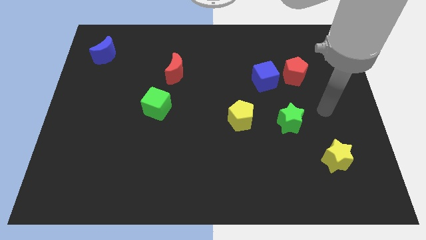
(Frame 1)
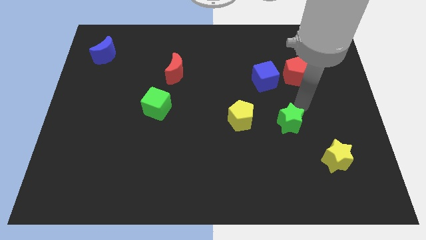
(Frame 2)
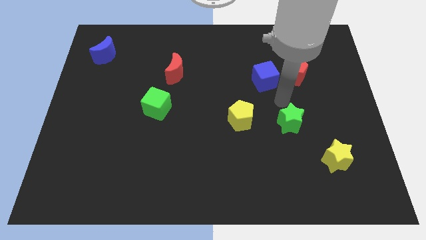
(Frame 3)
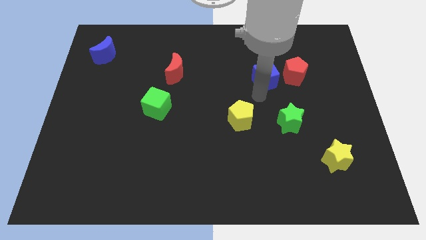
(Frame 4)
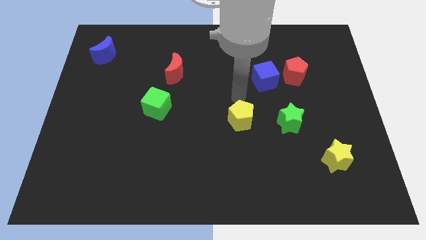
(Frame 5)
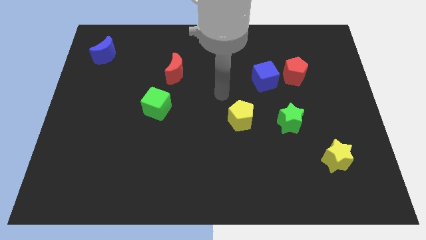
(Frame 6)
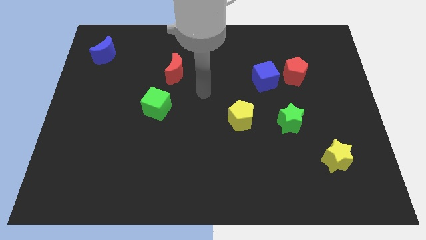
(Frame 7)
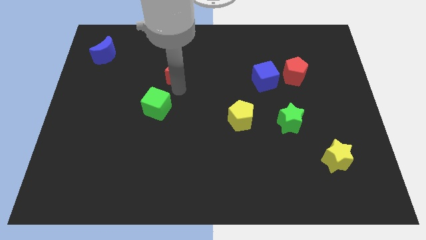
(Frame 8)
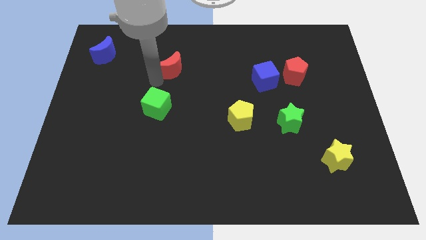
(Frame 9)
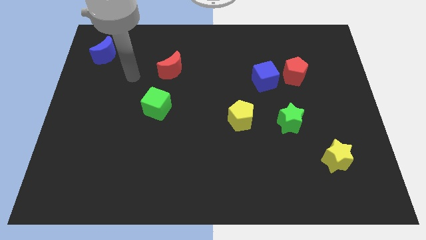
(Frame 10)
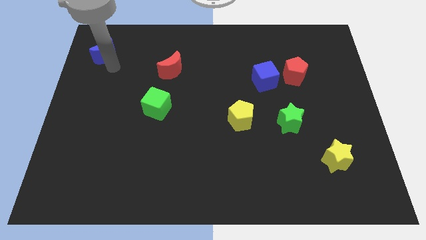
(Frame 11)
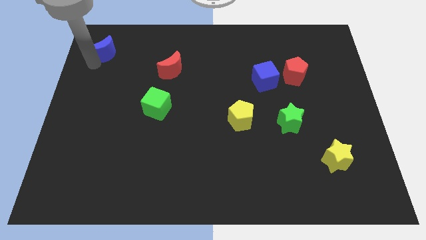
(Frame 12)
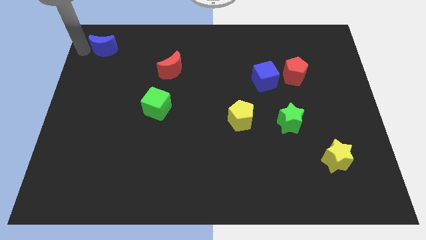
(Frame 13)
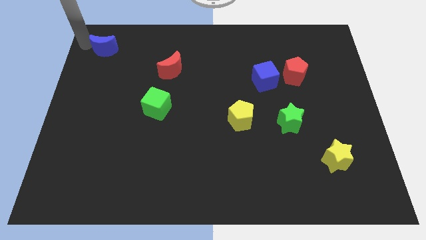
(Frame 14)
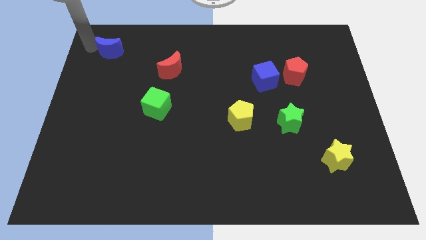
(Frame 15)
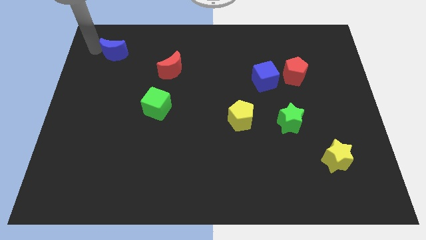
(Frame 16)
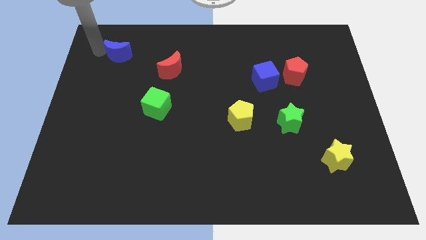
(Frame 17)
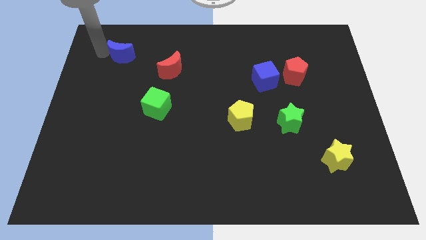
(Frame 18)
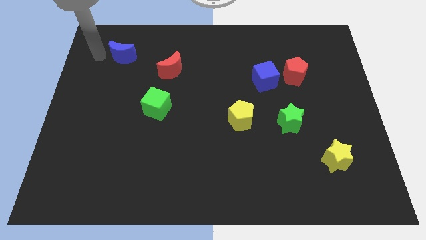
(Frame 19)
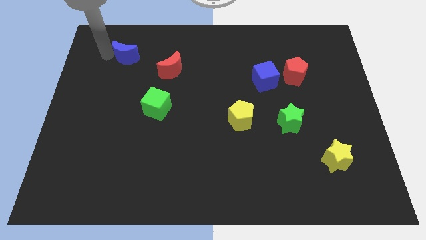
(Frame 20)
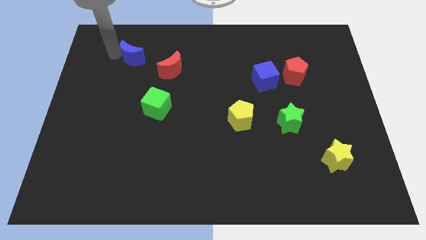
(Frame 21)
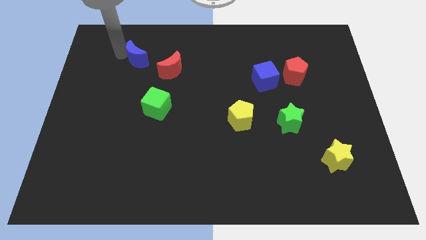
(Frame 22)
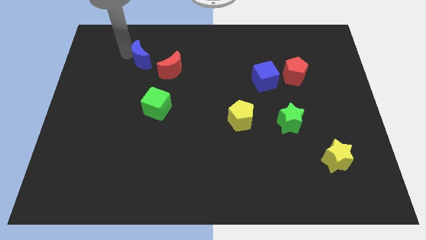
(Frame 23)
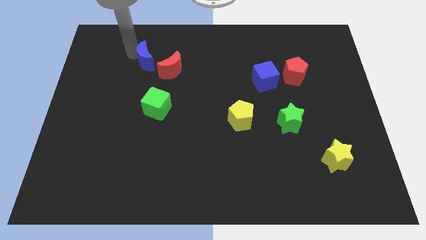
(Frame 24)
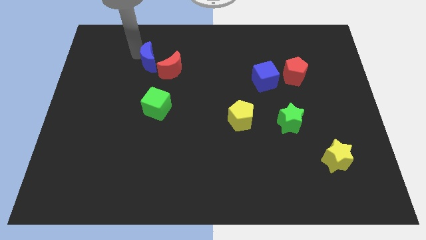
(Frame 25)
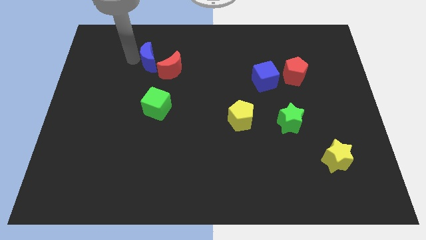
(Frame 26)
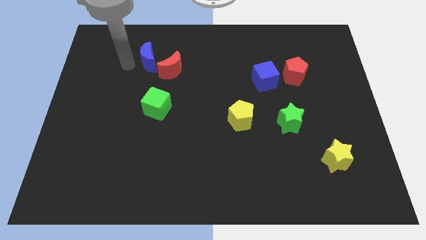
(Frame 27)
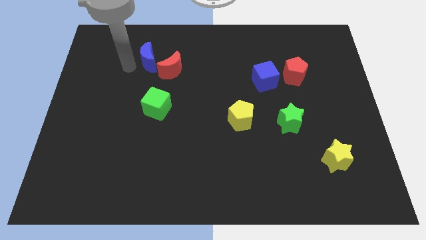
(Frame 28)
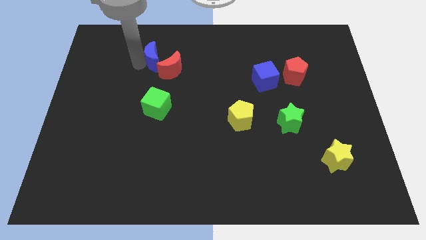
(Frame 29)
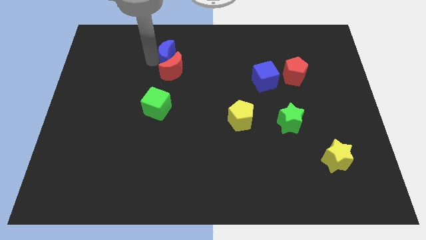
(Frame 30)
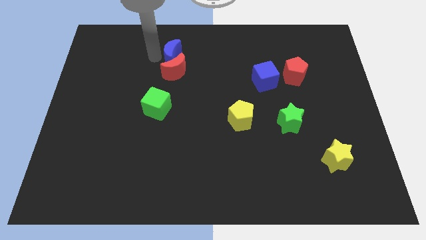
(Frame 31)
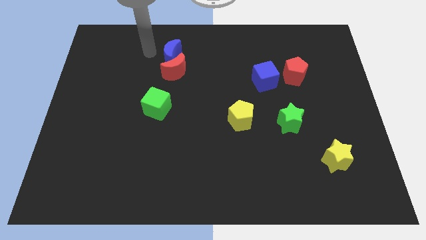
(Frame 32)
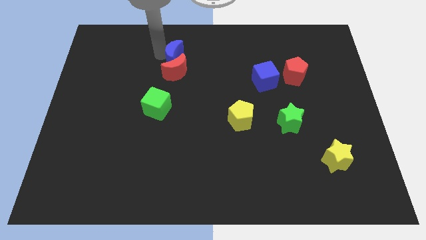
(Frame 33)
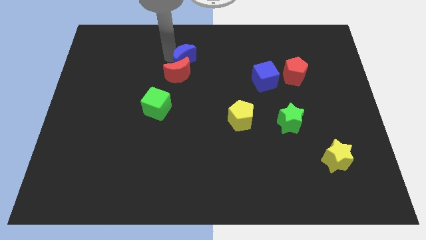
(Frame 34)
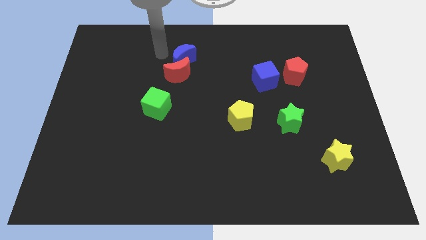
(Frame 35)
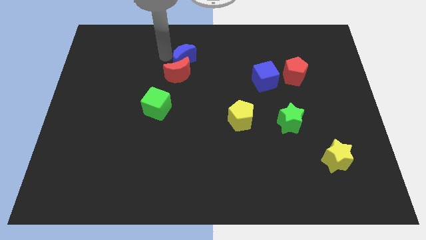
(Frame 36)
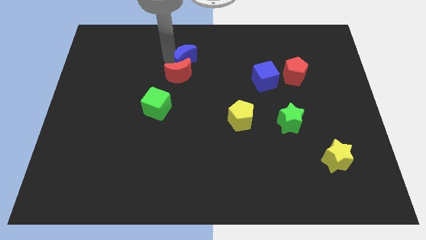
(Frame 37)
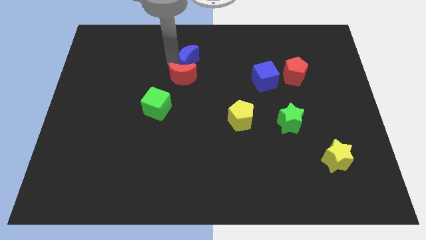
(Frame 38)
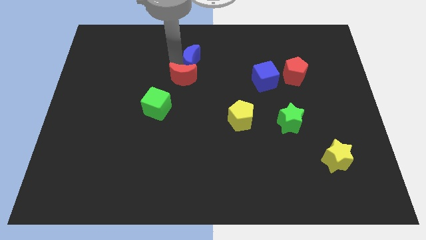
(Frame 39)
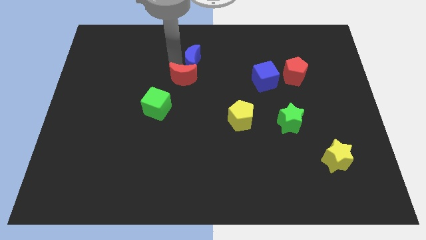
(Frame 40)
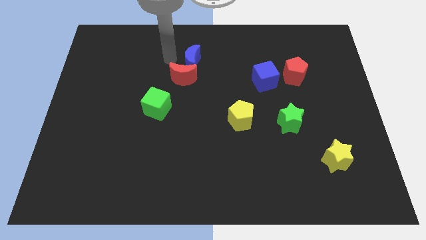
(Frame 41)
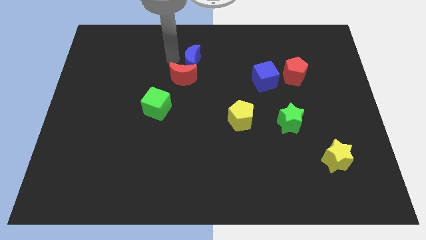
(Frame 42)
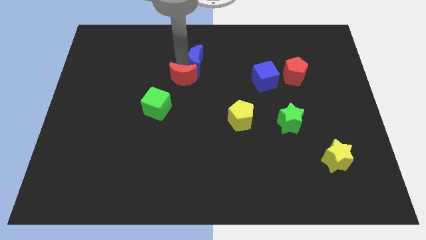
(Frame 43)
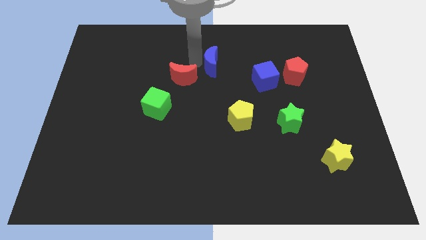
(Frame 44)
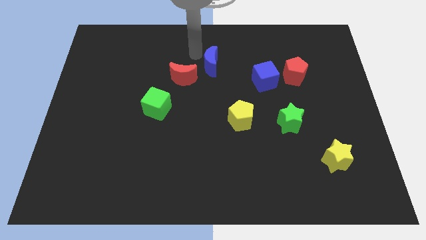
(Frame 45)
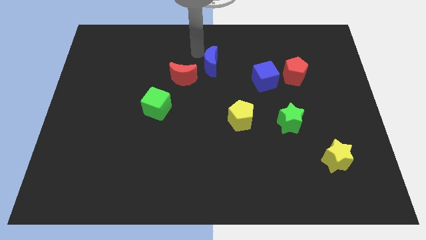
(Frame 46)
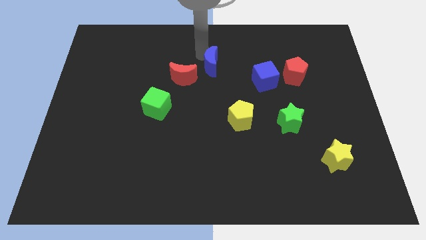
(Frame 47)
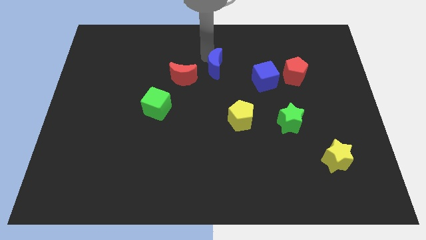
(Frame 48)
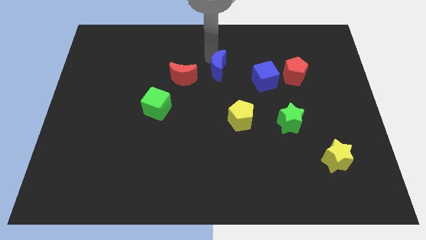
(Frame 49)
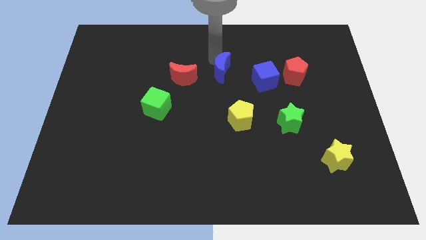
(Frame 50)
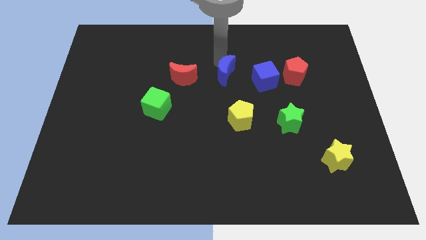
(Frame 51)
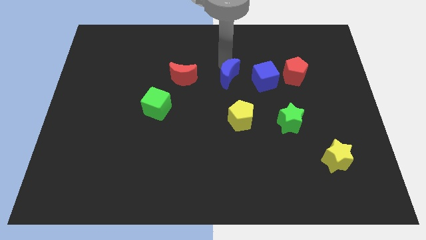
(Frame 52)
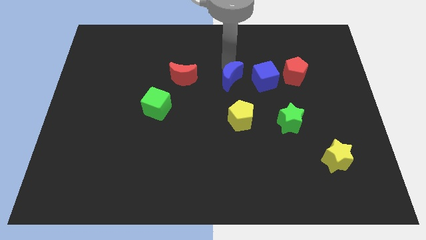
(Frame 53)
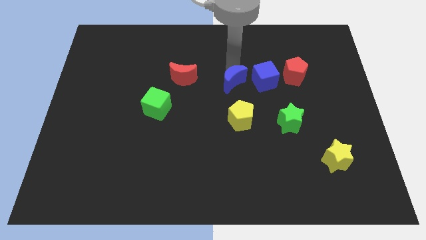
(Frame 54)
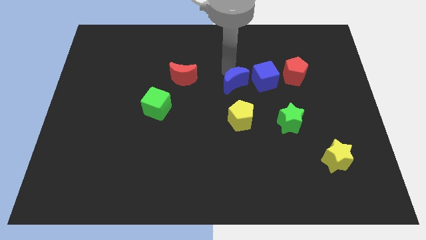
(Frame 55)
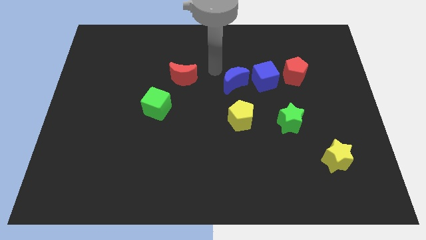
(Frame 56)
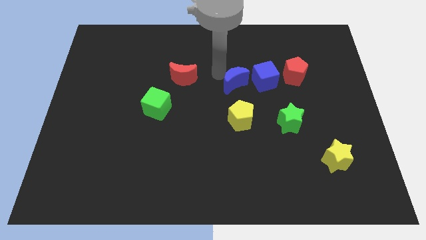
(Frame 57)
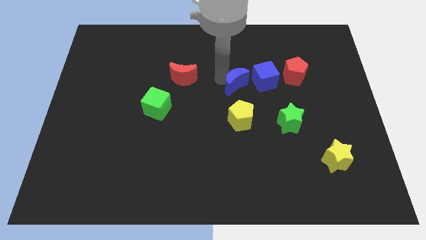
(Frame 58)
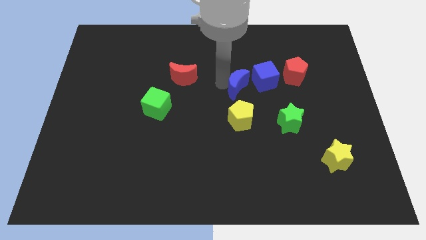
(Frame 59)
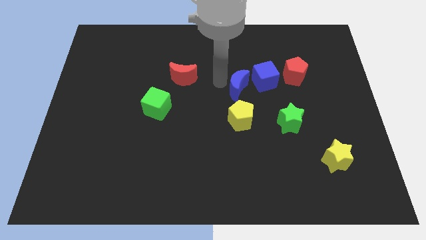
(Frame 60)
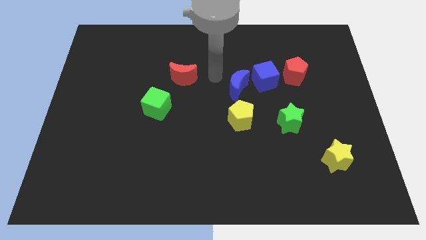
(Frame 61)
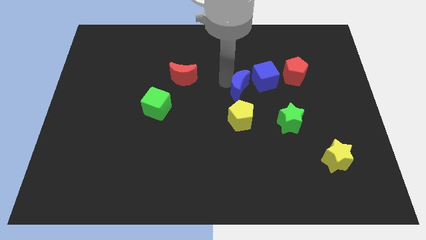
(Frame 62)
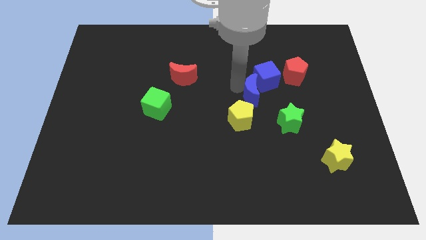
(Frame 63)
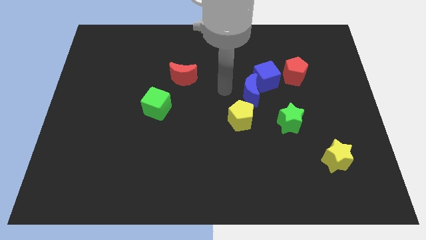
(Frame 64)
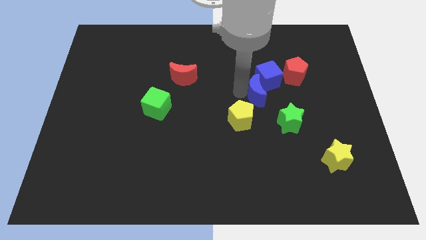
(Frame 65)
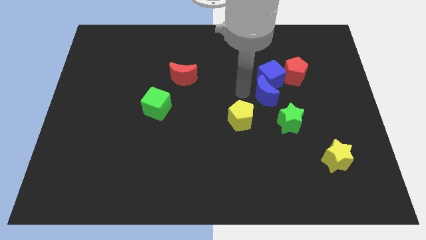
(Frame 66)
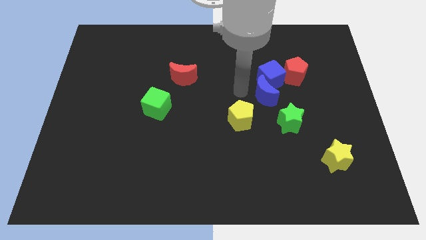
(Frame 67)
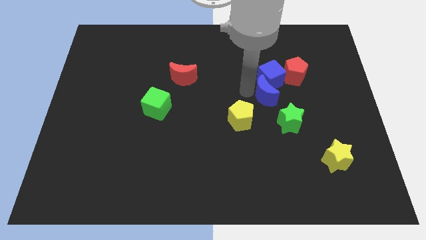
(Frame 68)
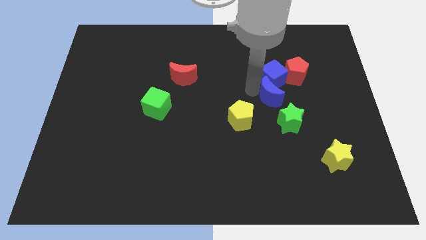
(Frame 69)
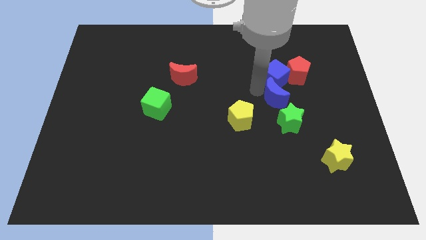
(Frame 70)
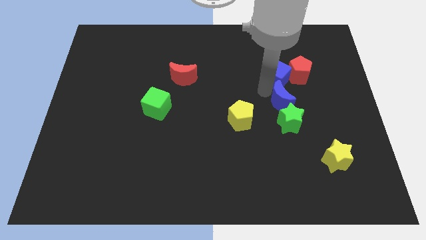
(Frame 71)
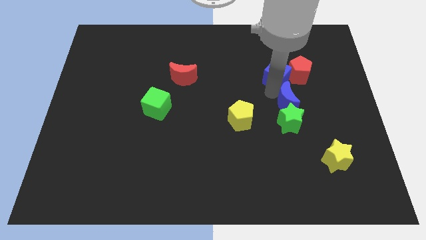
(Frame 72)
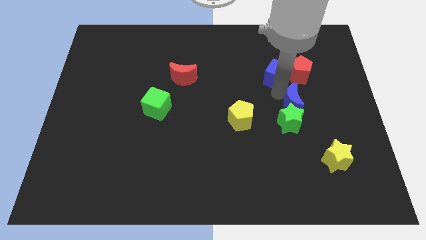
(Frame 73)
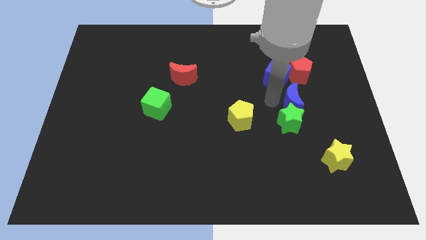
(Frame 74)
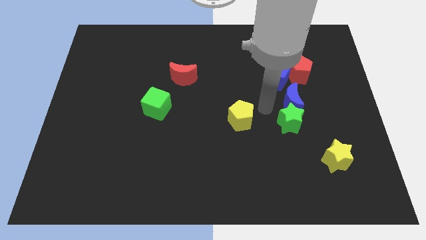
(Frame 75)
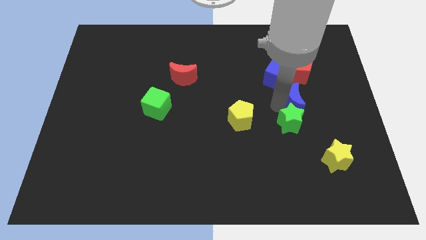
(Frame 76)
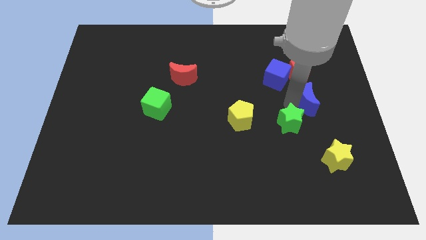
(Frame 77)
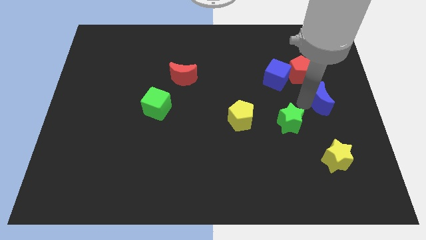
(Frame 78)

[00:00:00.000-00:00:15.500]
slide the blue moon to the center right
